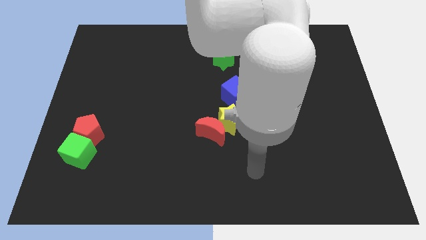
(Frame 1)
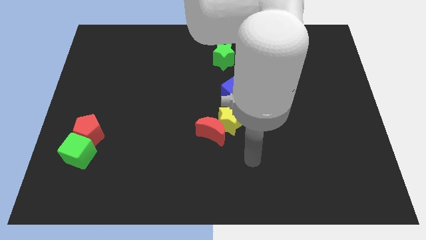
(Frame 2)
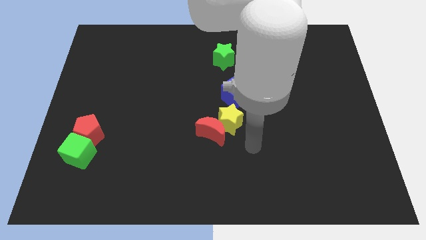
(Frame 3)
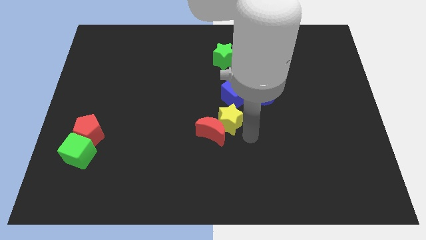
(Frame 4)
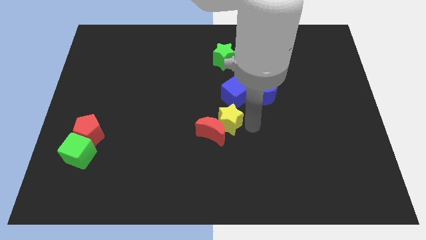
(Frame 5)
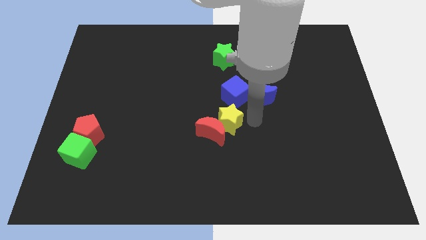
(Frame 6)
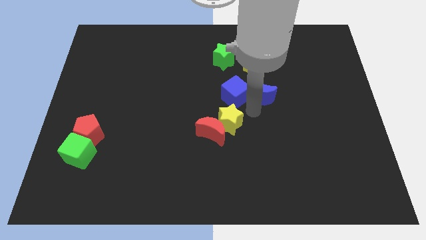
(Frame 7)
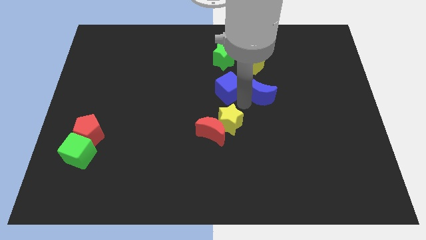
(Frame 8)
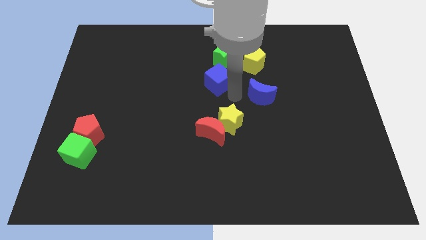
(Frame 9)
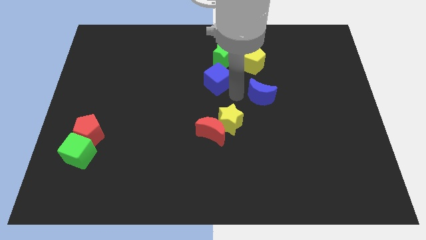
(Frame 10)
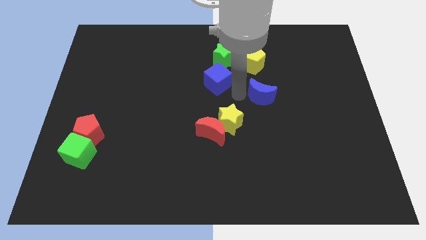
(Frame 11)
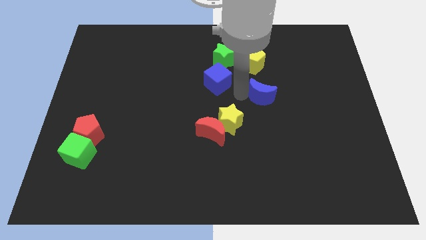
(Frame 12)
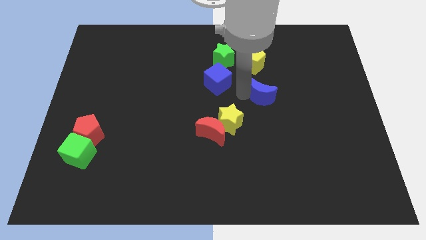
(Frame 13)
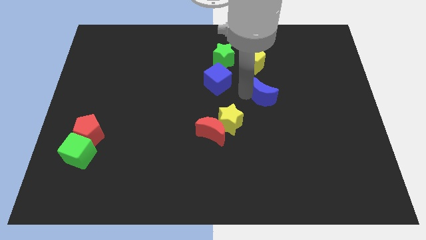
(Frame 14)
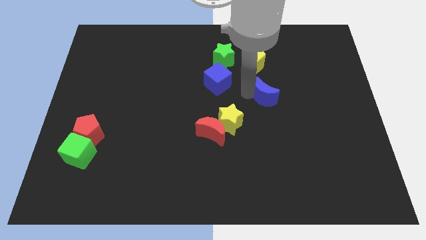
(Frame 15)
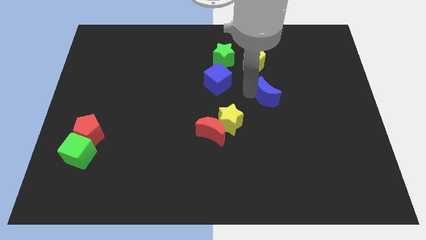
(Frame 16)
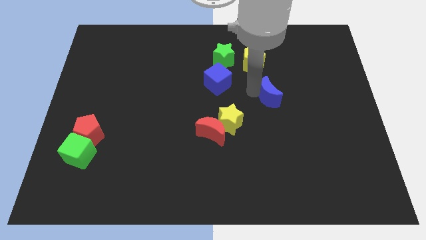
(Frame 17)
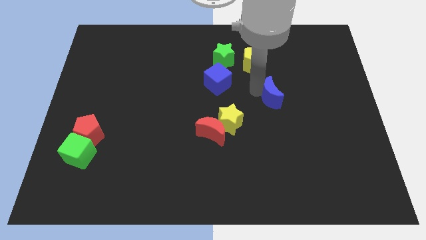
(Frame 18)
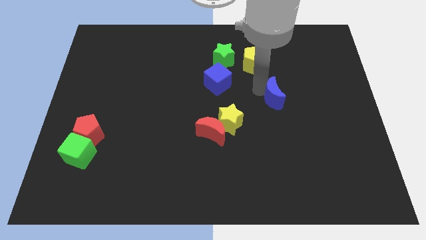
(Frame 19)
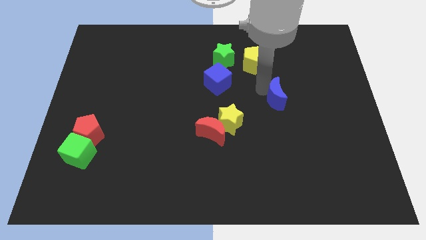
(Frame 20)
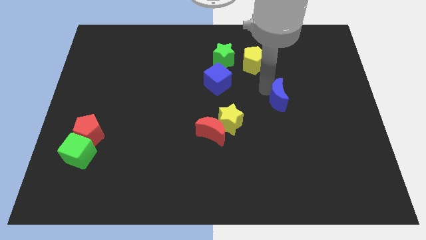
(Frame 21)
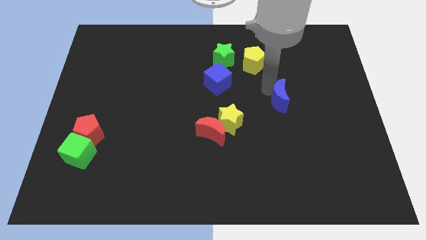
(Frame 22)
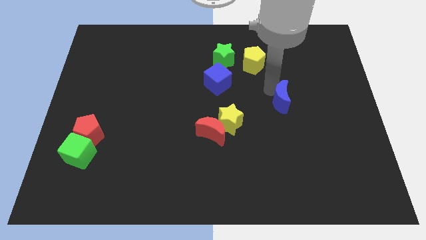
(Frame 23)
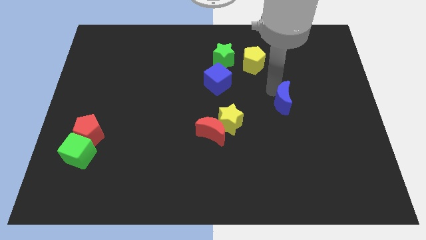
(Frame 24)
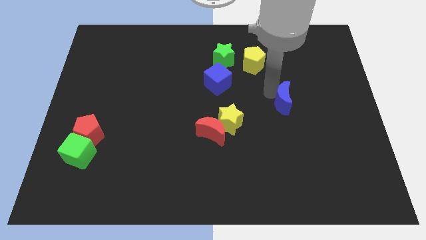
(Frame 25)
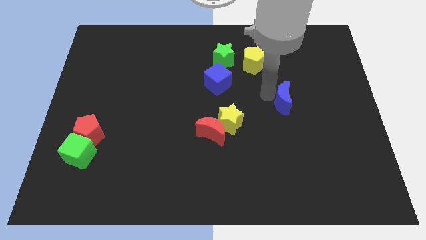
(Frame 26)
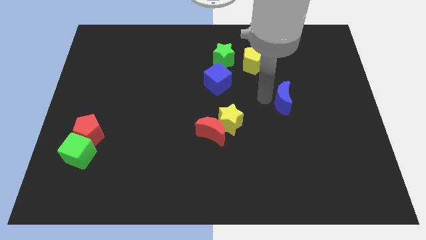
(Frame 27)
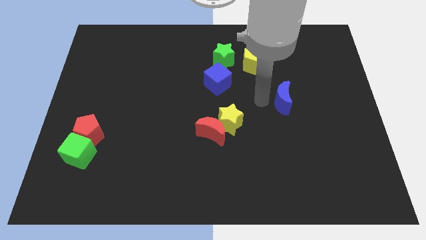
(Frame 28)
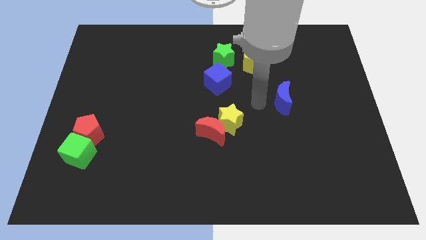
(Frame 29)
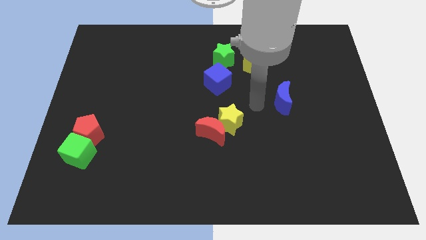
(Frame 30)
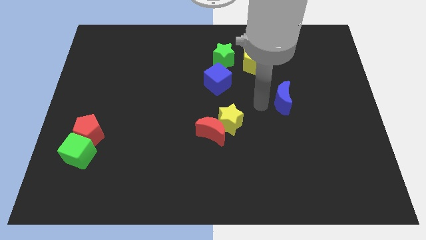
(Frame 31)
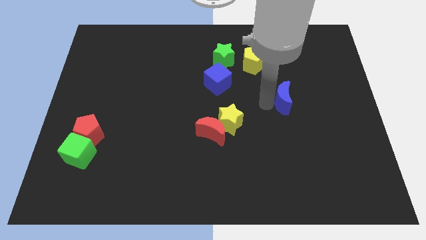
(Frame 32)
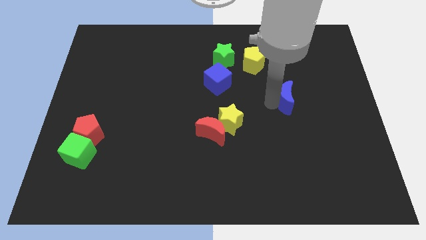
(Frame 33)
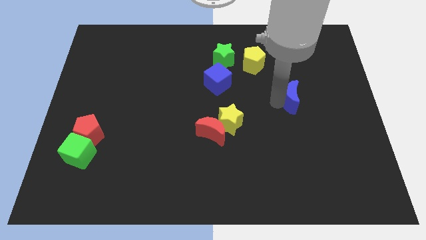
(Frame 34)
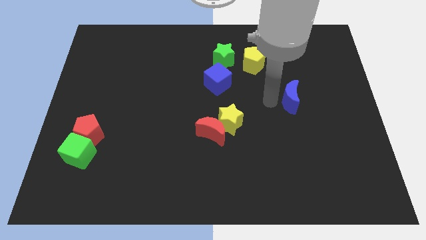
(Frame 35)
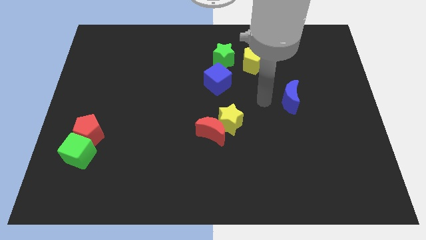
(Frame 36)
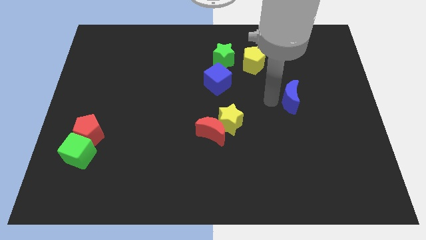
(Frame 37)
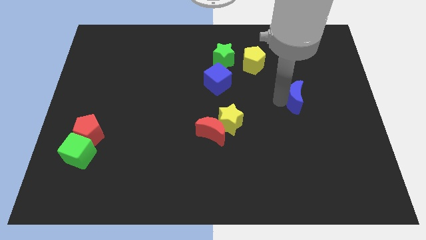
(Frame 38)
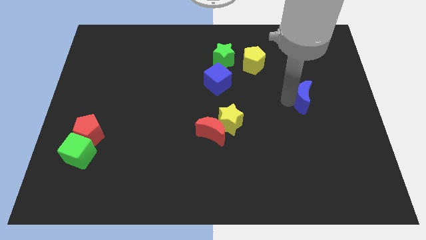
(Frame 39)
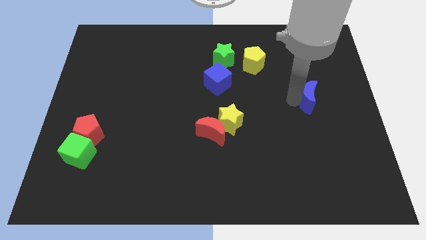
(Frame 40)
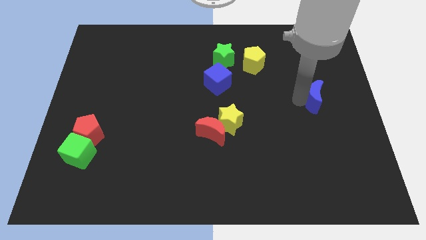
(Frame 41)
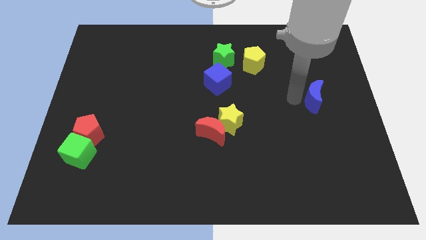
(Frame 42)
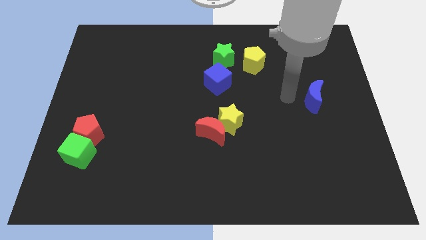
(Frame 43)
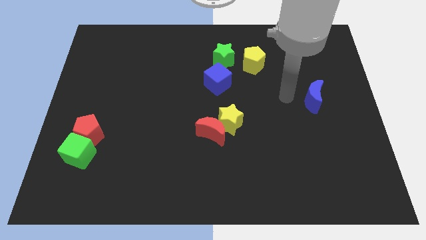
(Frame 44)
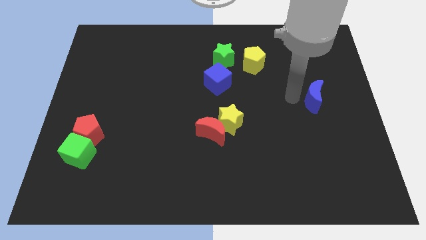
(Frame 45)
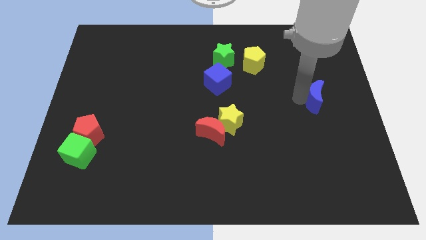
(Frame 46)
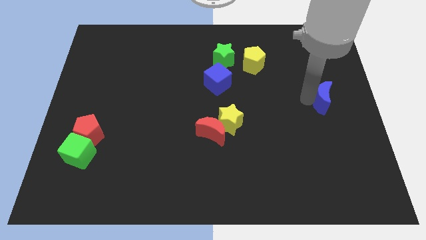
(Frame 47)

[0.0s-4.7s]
push the blue moon to the right side of the board

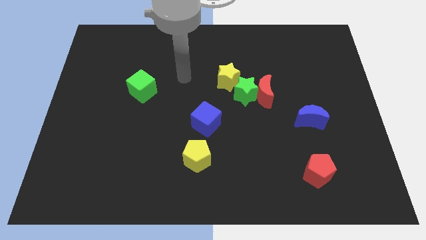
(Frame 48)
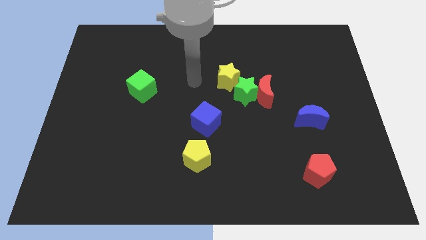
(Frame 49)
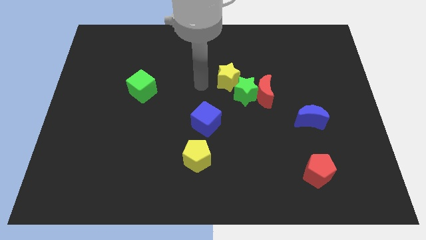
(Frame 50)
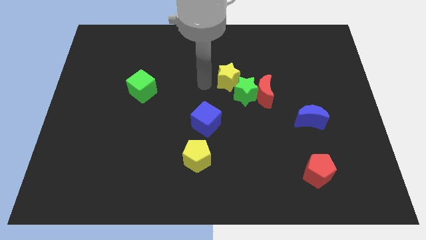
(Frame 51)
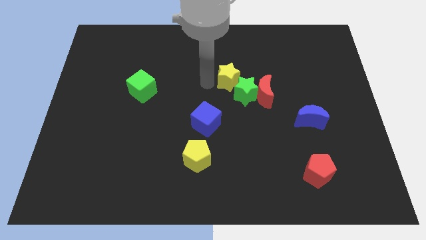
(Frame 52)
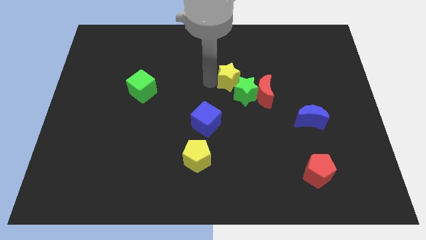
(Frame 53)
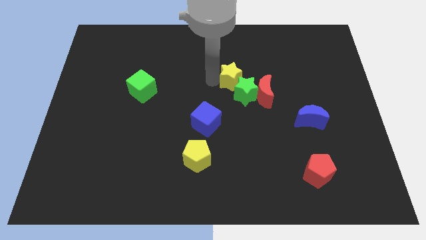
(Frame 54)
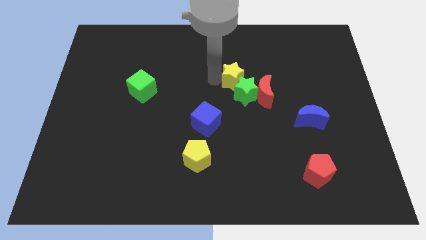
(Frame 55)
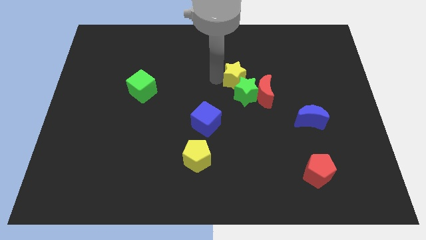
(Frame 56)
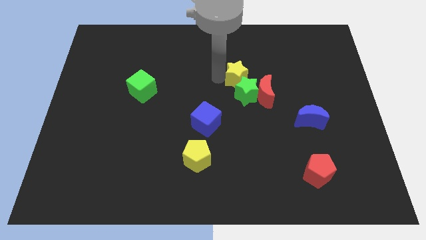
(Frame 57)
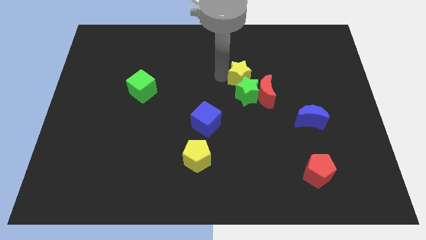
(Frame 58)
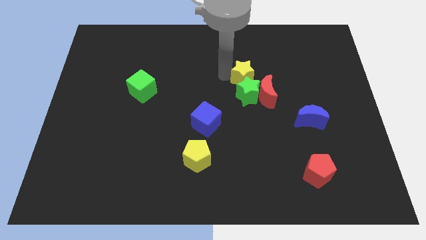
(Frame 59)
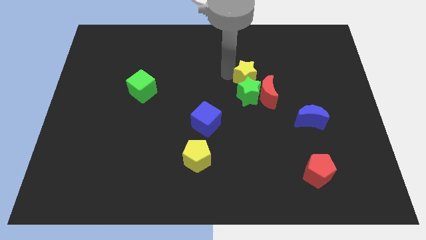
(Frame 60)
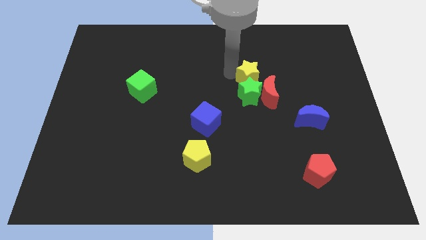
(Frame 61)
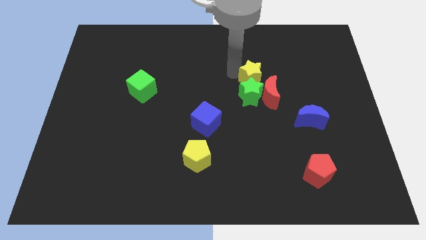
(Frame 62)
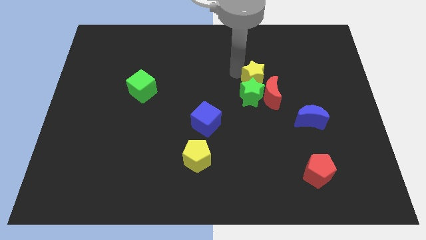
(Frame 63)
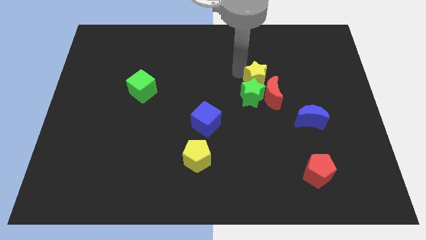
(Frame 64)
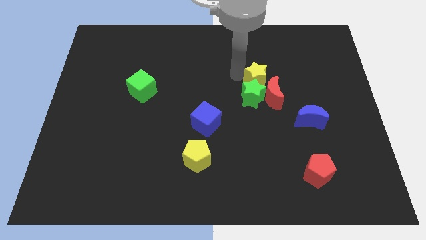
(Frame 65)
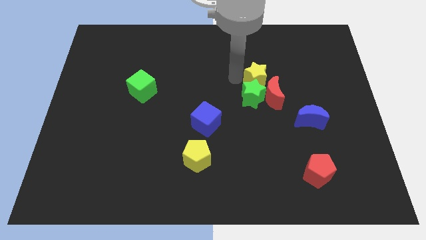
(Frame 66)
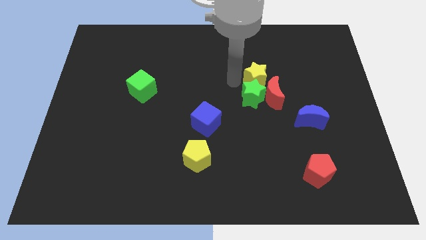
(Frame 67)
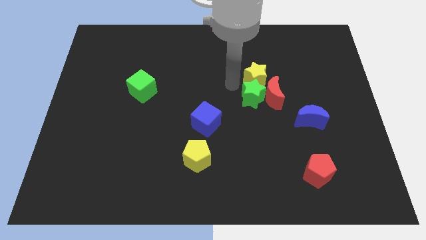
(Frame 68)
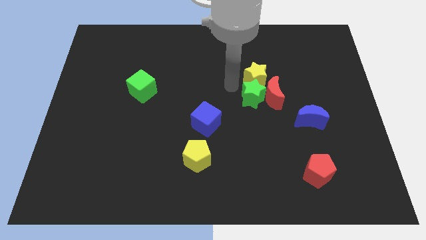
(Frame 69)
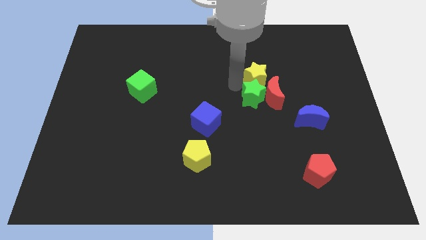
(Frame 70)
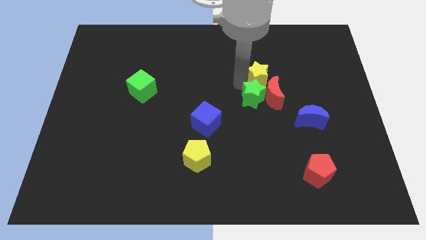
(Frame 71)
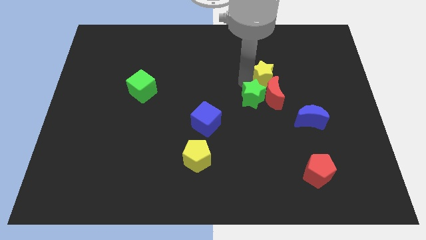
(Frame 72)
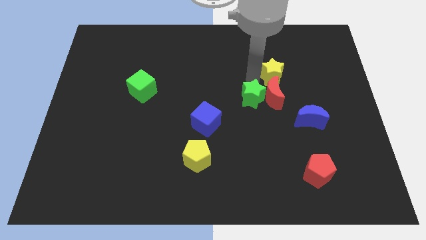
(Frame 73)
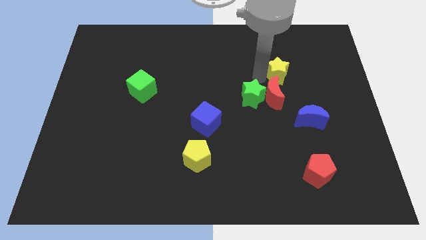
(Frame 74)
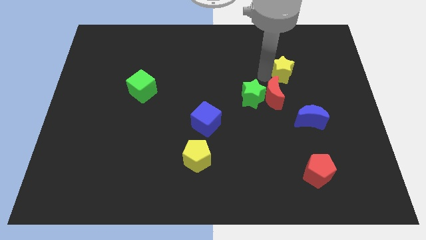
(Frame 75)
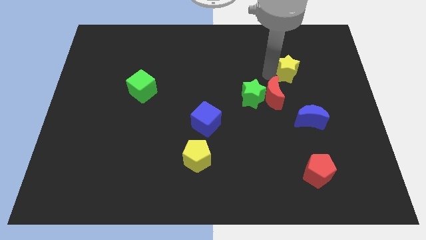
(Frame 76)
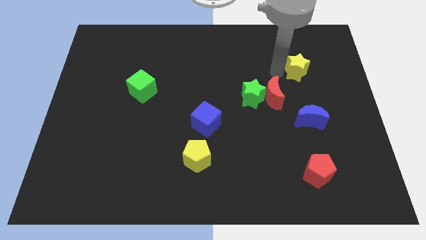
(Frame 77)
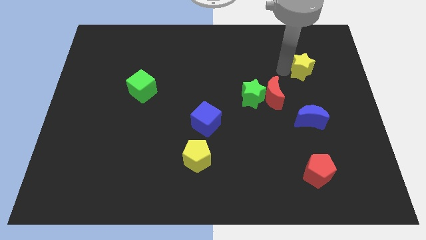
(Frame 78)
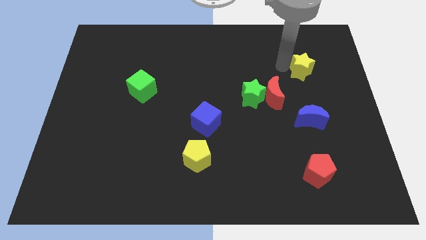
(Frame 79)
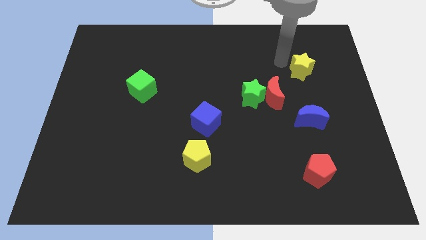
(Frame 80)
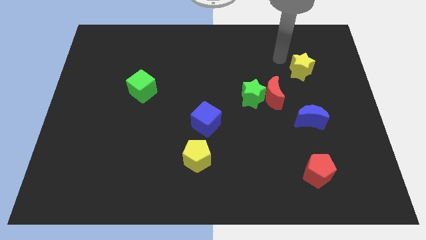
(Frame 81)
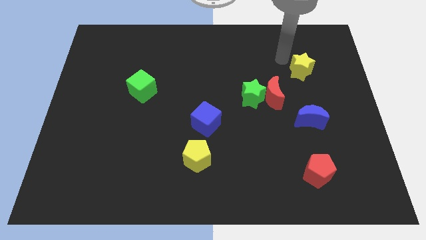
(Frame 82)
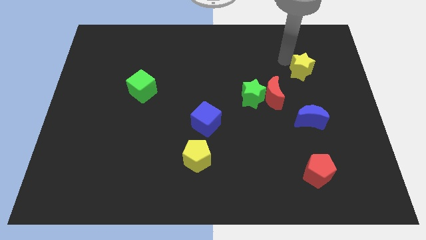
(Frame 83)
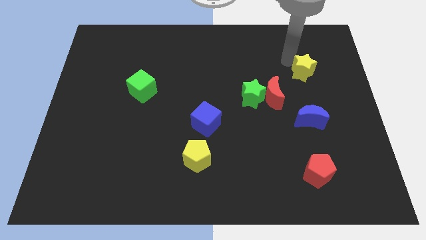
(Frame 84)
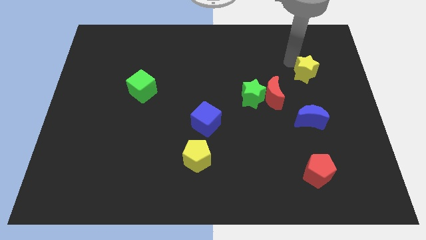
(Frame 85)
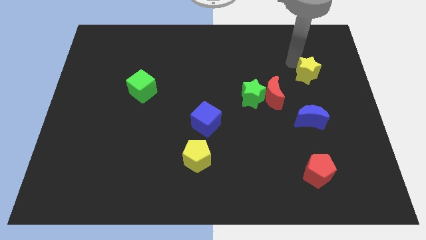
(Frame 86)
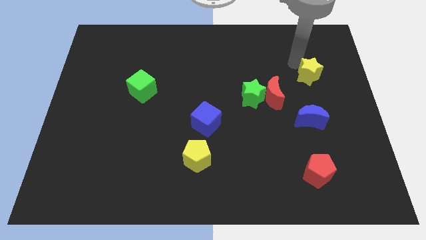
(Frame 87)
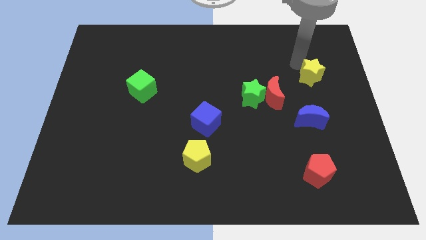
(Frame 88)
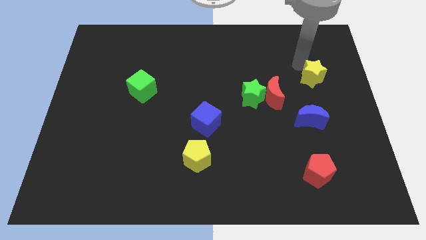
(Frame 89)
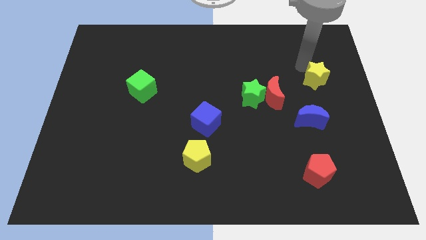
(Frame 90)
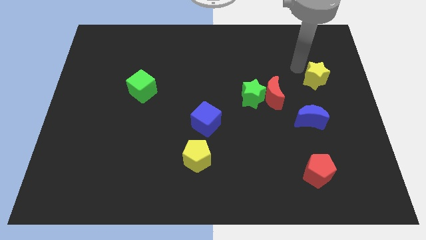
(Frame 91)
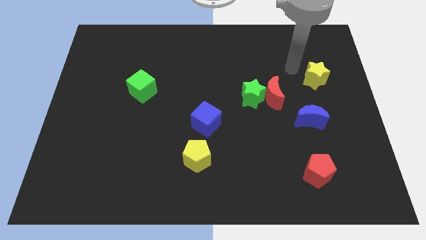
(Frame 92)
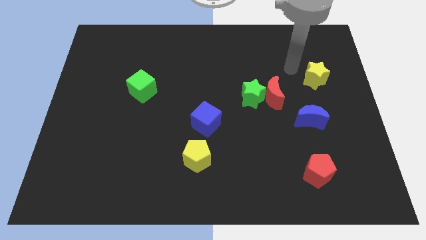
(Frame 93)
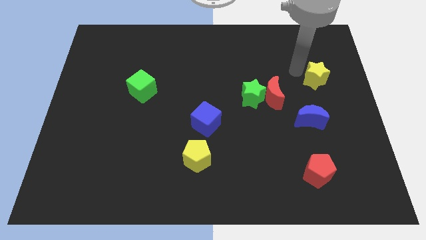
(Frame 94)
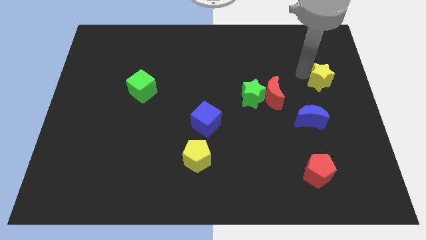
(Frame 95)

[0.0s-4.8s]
move the yellow star to the right side
